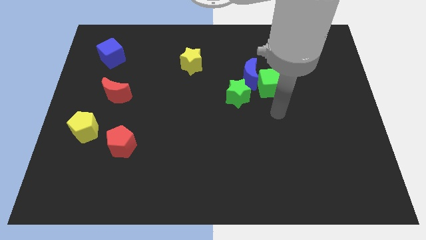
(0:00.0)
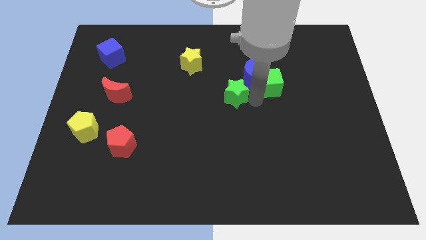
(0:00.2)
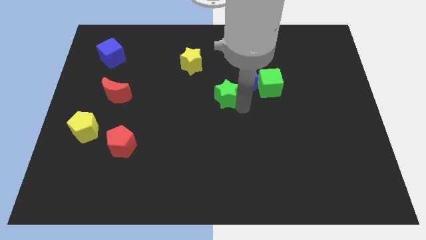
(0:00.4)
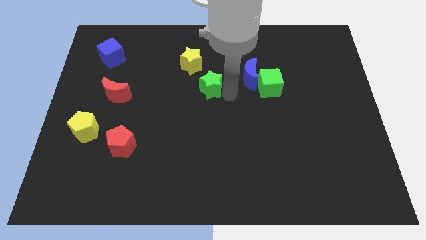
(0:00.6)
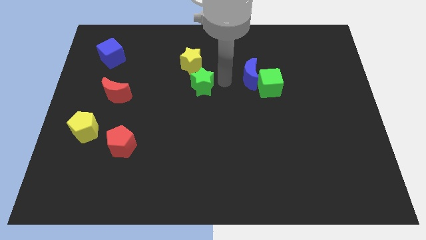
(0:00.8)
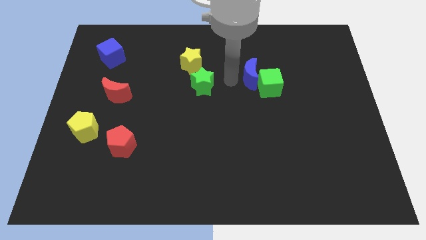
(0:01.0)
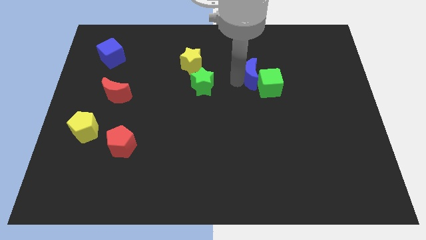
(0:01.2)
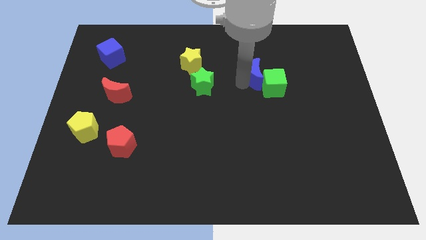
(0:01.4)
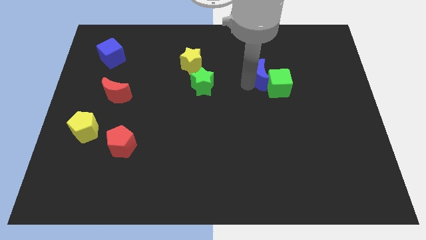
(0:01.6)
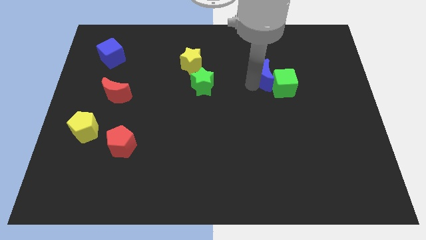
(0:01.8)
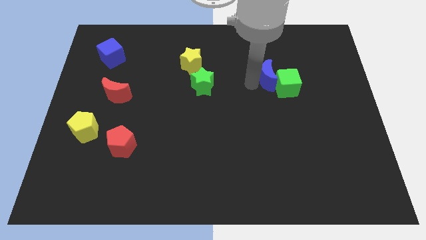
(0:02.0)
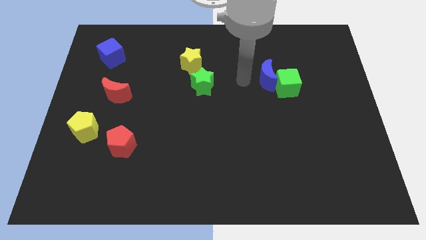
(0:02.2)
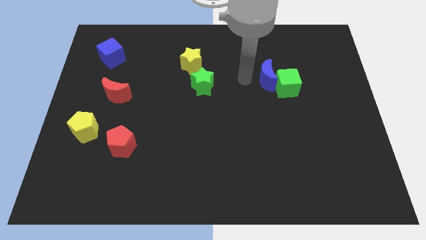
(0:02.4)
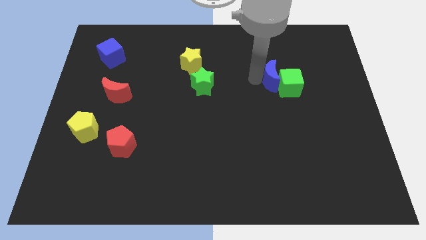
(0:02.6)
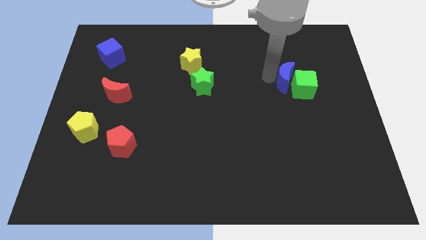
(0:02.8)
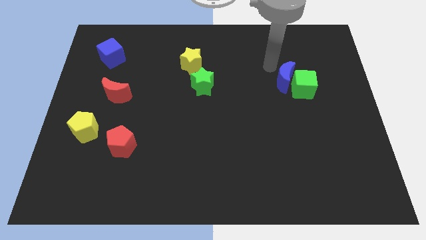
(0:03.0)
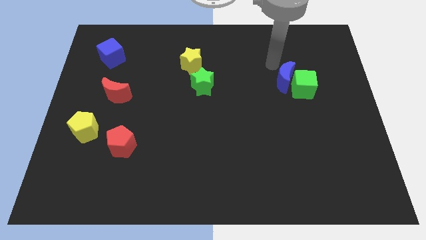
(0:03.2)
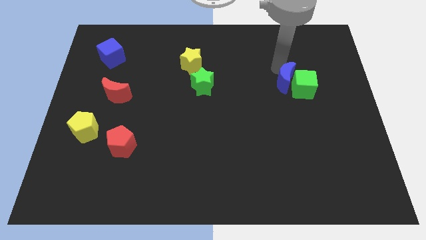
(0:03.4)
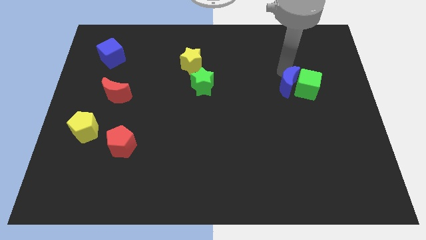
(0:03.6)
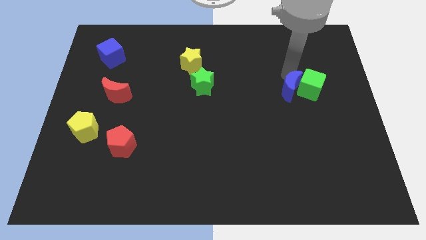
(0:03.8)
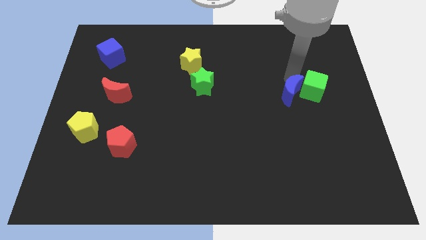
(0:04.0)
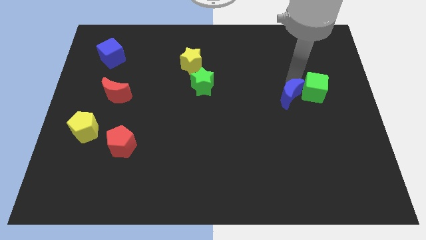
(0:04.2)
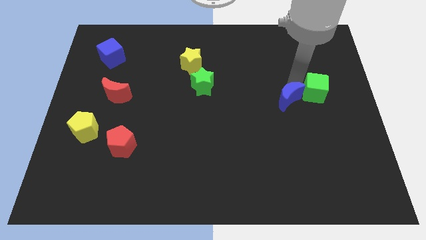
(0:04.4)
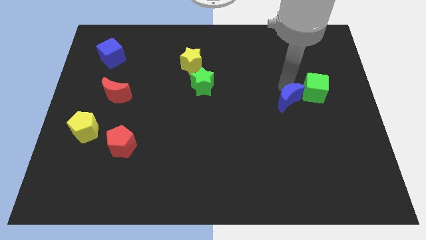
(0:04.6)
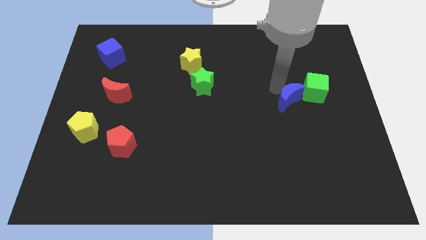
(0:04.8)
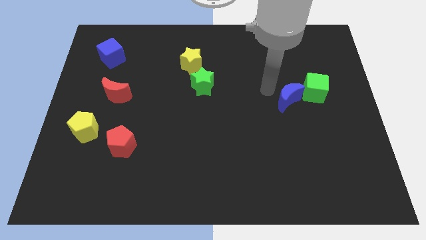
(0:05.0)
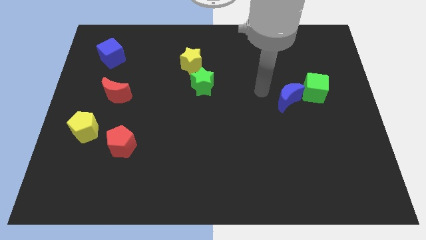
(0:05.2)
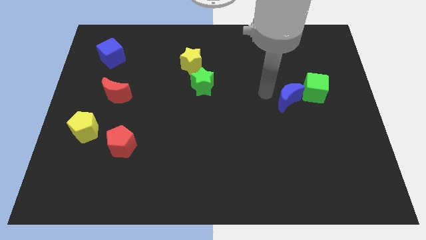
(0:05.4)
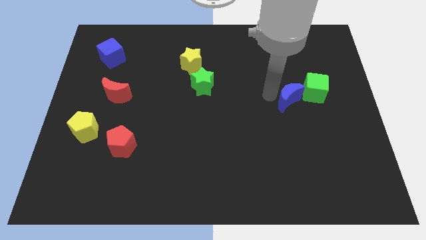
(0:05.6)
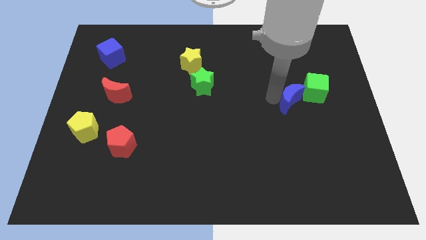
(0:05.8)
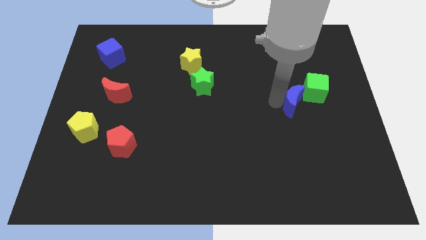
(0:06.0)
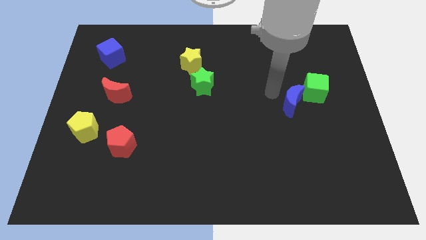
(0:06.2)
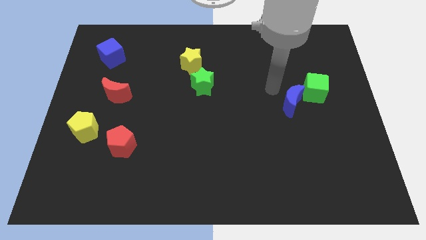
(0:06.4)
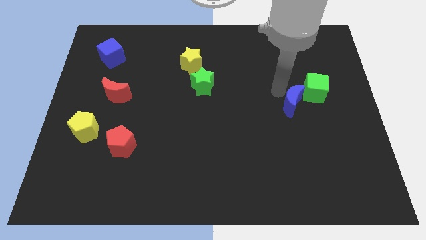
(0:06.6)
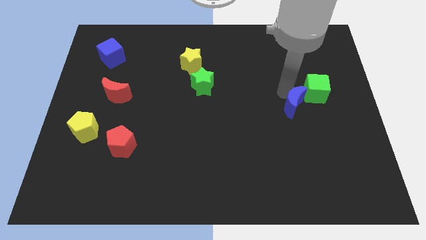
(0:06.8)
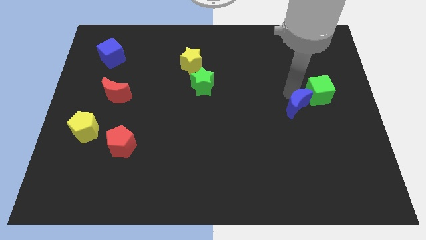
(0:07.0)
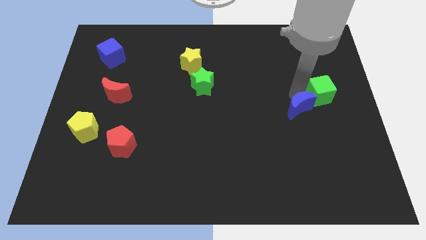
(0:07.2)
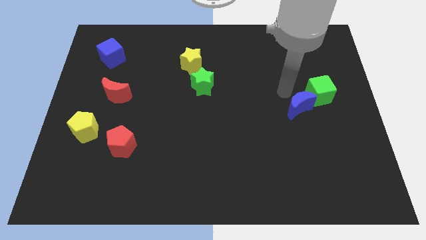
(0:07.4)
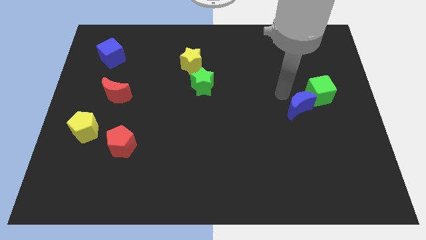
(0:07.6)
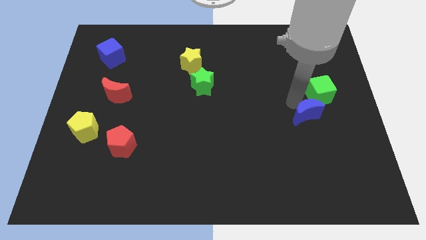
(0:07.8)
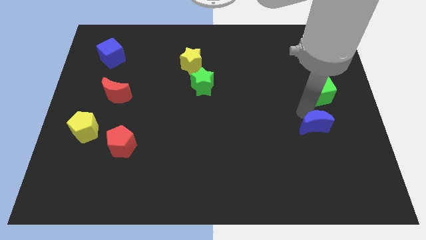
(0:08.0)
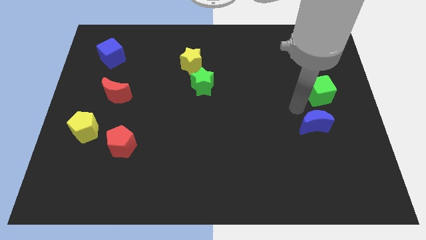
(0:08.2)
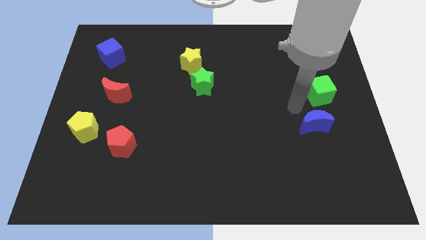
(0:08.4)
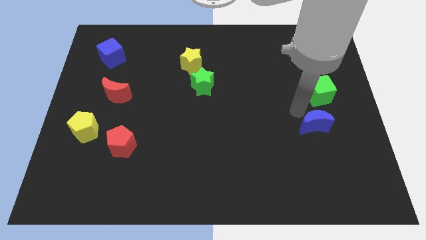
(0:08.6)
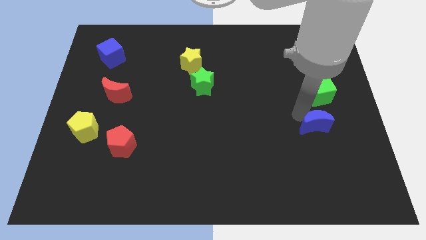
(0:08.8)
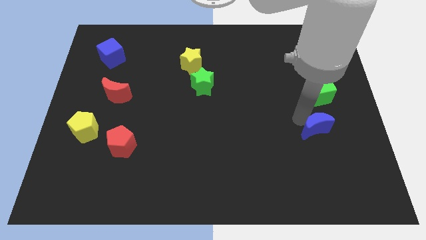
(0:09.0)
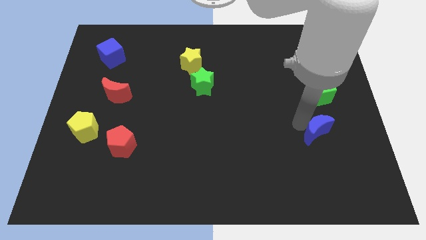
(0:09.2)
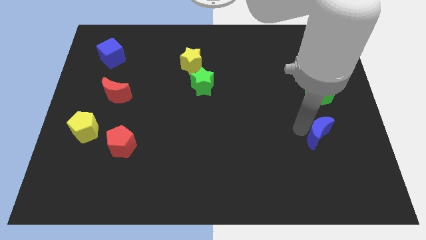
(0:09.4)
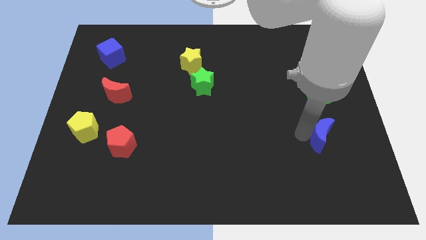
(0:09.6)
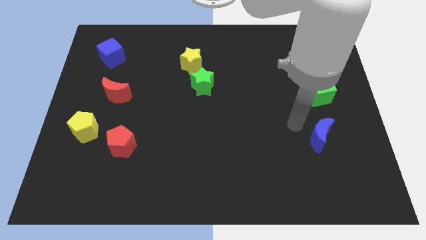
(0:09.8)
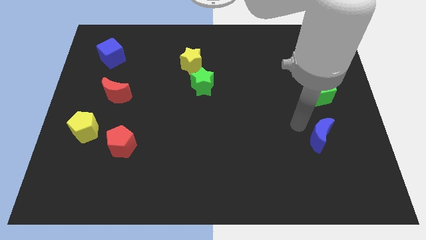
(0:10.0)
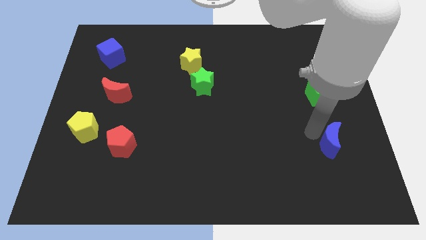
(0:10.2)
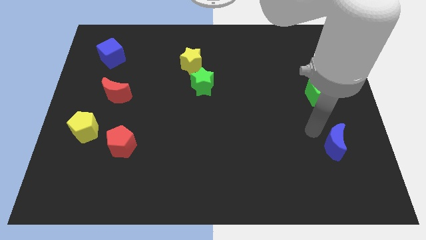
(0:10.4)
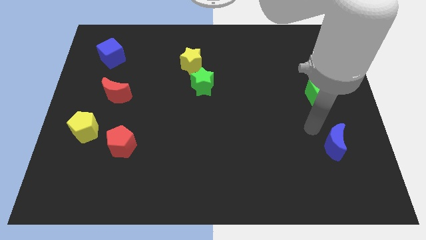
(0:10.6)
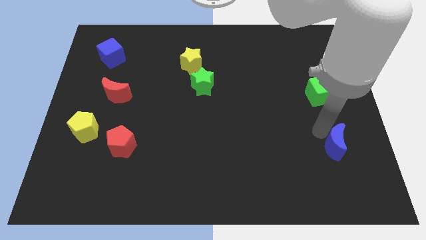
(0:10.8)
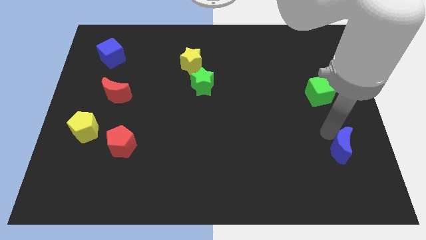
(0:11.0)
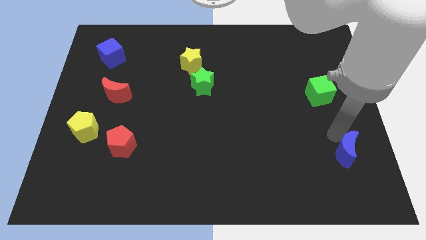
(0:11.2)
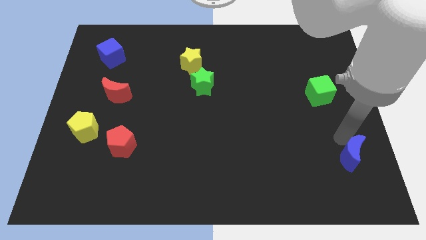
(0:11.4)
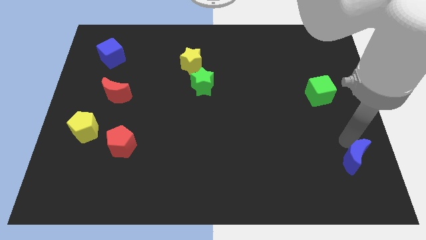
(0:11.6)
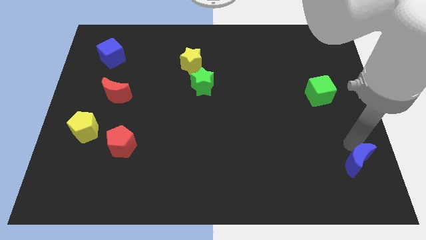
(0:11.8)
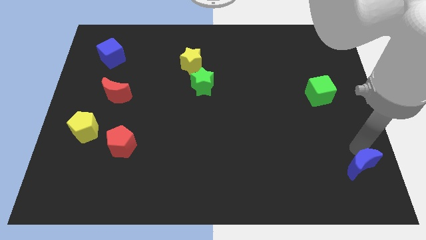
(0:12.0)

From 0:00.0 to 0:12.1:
put the blue moon to the bottom right of the board
